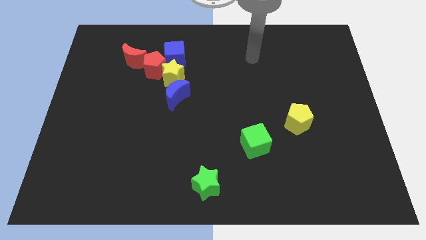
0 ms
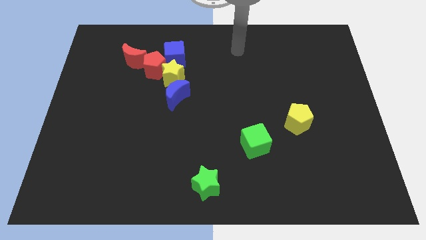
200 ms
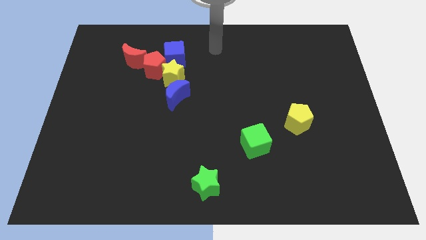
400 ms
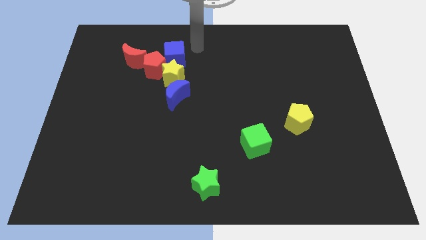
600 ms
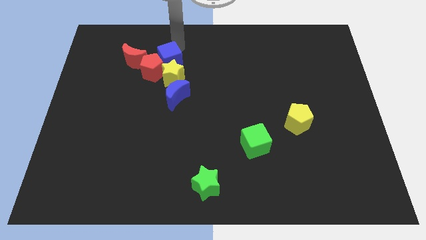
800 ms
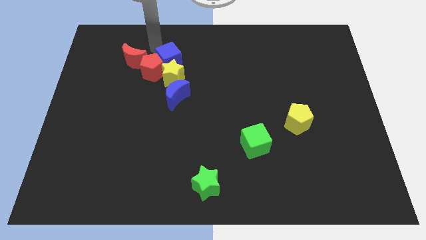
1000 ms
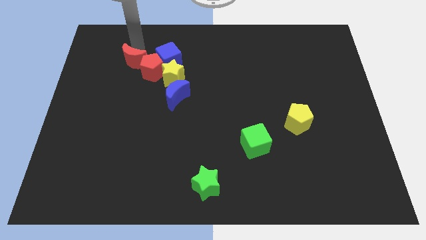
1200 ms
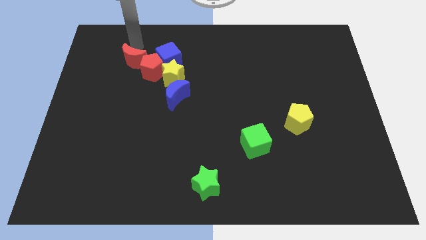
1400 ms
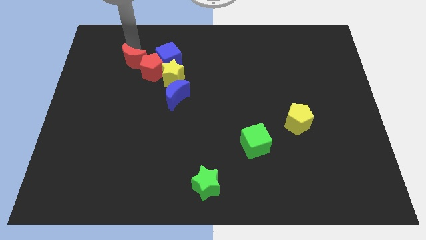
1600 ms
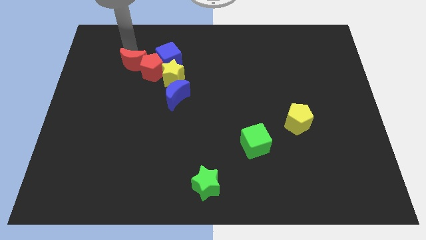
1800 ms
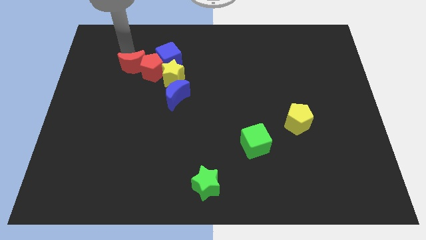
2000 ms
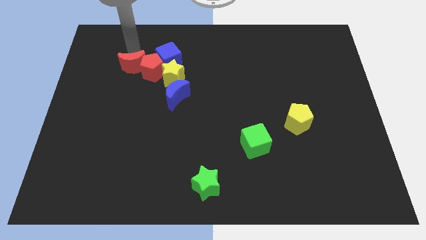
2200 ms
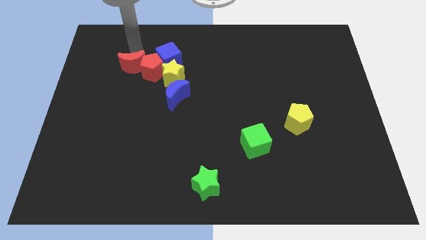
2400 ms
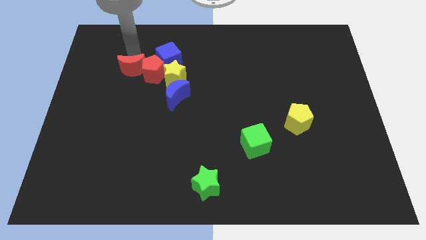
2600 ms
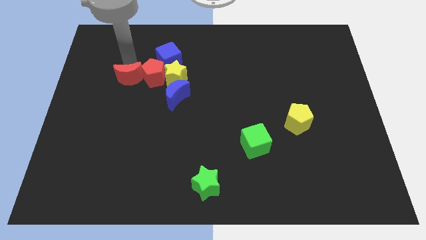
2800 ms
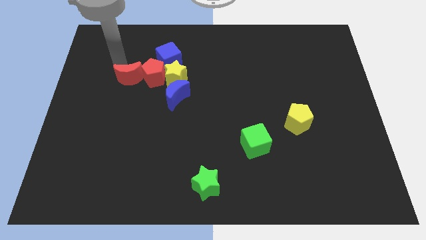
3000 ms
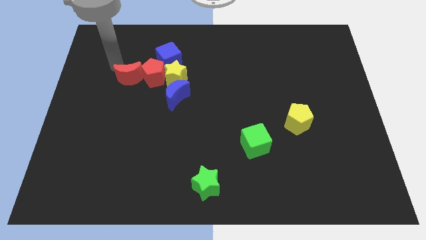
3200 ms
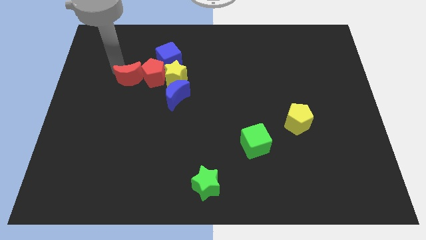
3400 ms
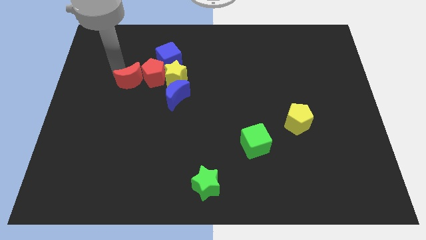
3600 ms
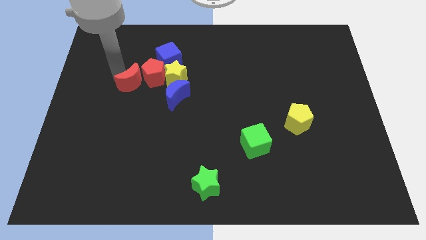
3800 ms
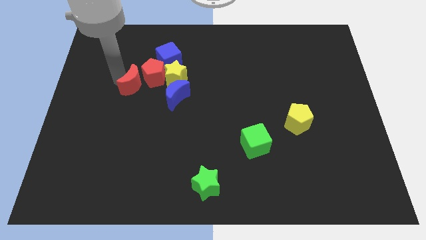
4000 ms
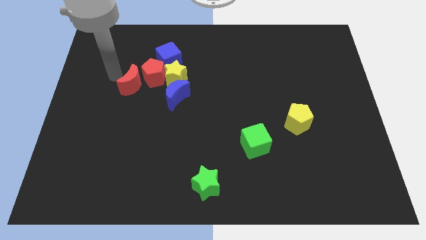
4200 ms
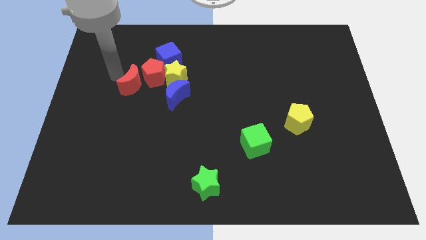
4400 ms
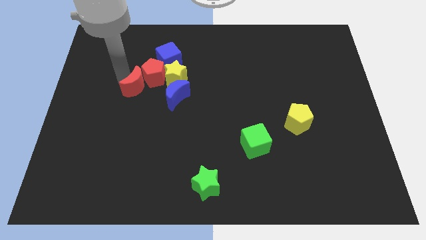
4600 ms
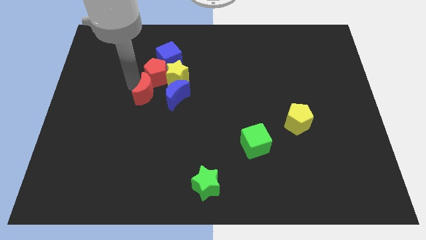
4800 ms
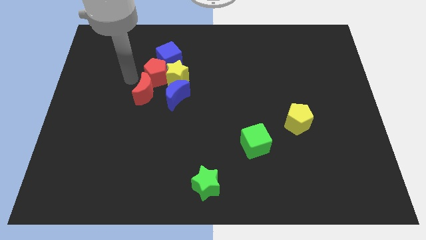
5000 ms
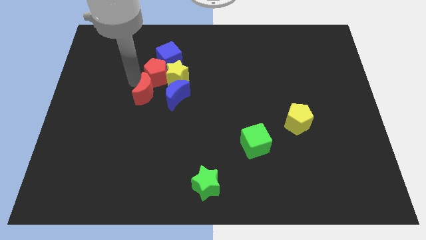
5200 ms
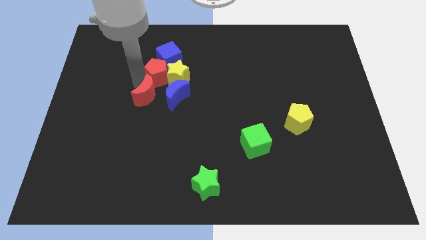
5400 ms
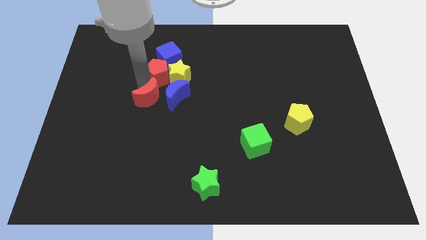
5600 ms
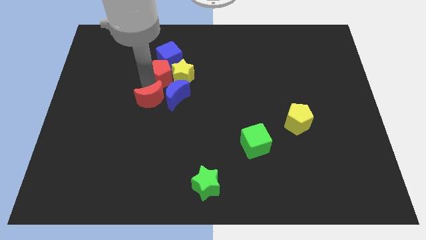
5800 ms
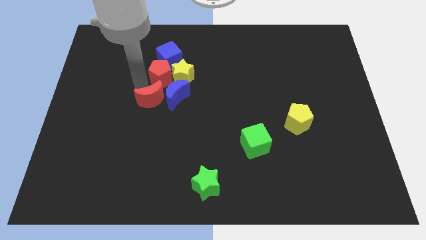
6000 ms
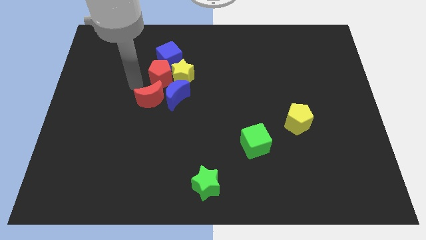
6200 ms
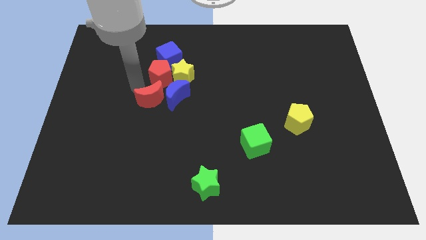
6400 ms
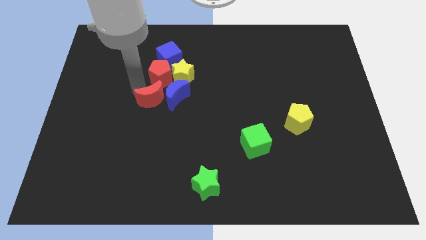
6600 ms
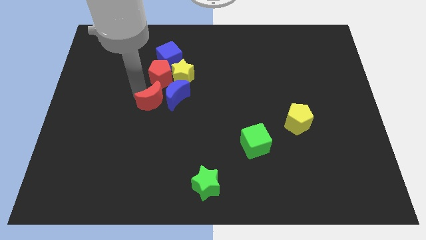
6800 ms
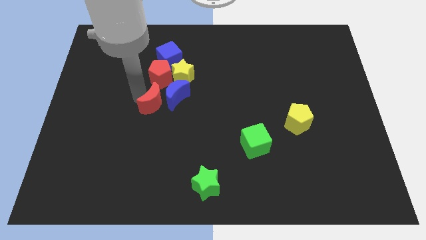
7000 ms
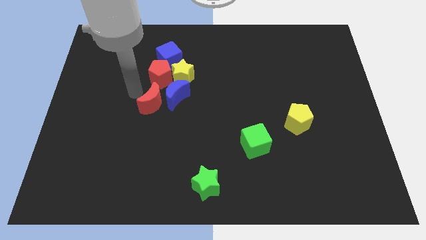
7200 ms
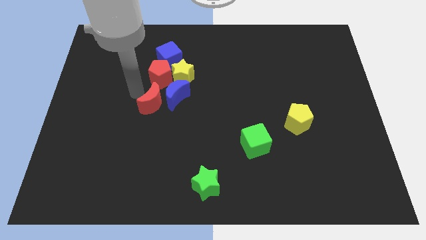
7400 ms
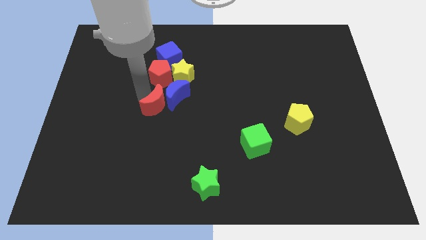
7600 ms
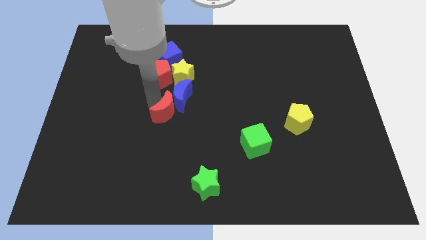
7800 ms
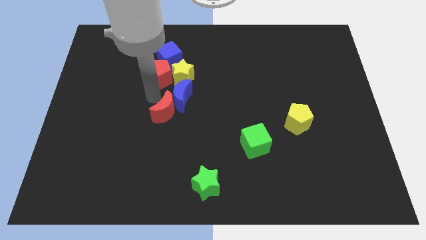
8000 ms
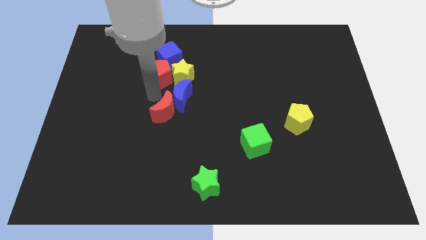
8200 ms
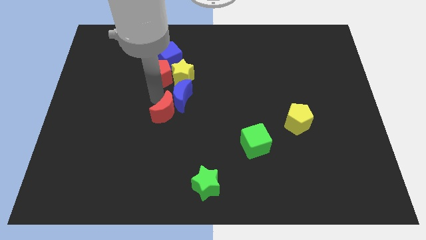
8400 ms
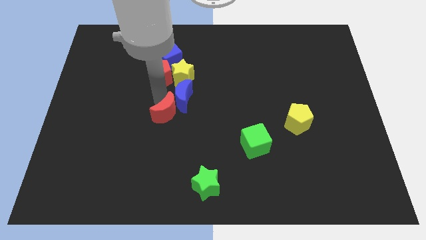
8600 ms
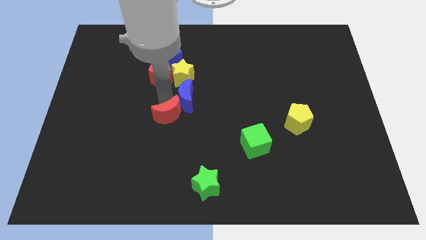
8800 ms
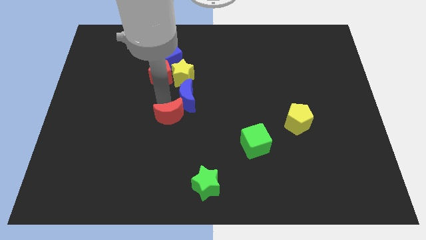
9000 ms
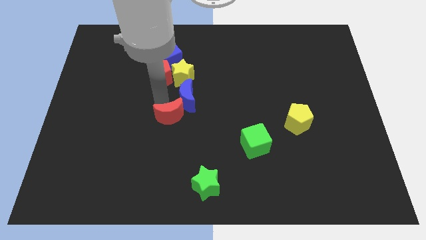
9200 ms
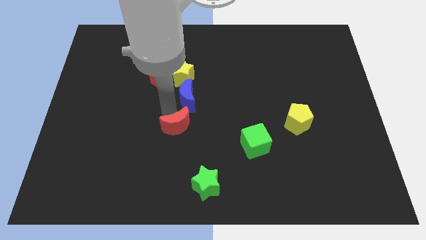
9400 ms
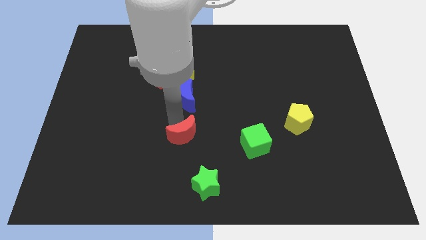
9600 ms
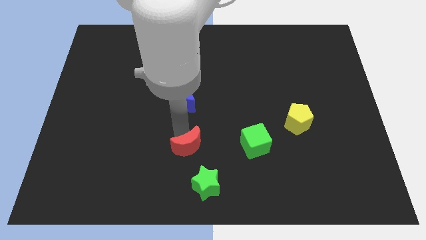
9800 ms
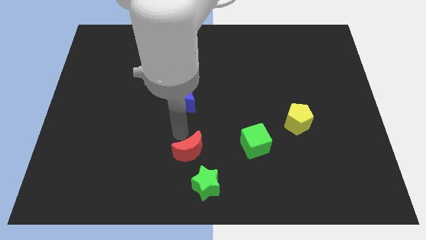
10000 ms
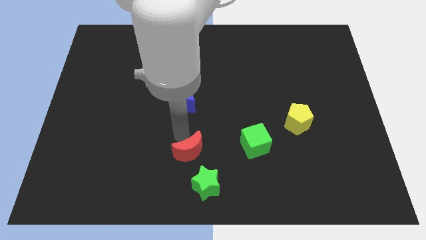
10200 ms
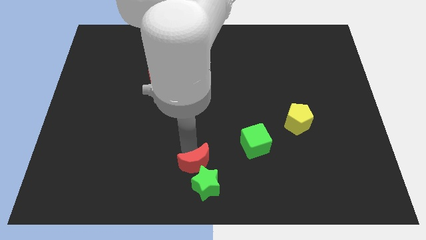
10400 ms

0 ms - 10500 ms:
push the red moon towards the green star

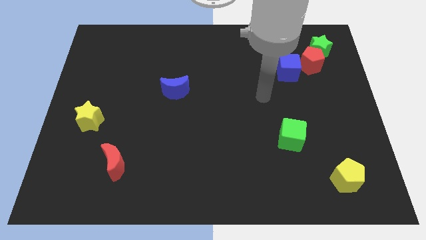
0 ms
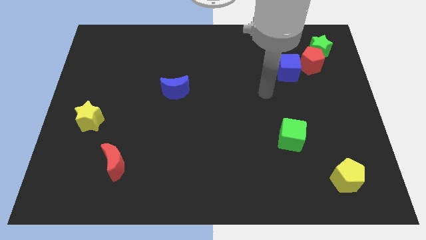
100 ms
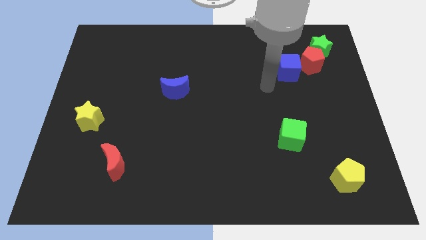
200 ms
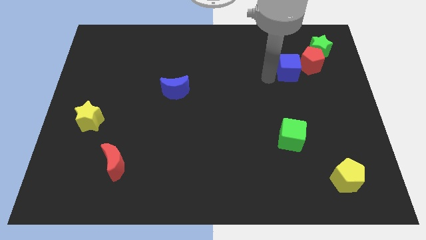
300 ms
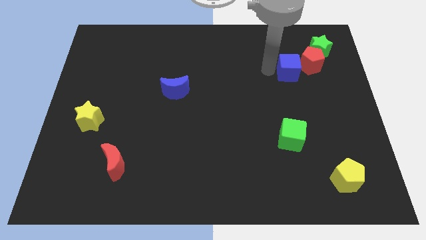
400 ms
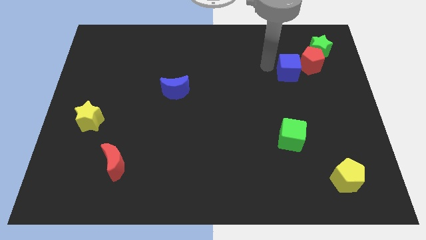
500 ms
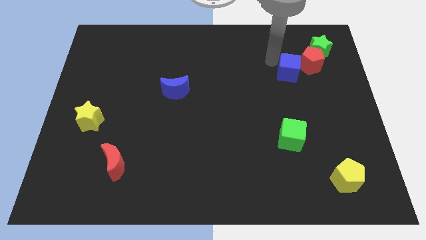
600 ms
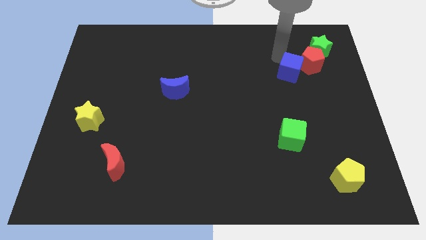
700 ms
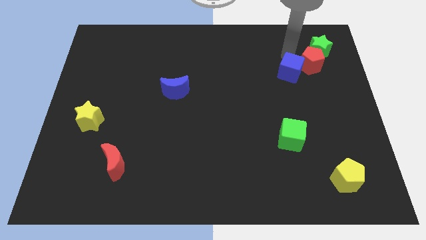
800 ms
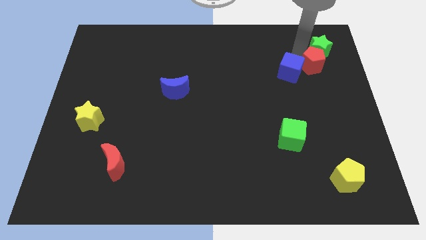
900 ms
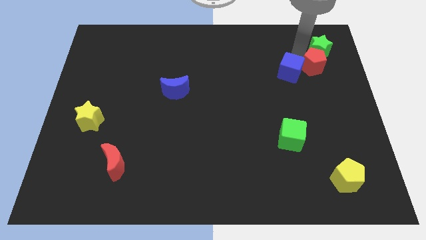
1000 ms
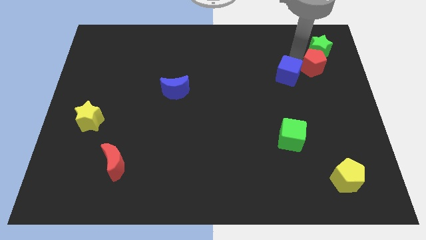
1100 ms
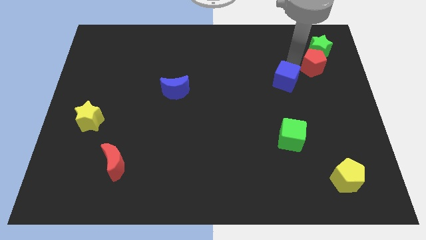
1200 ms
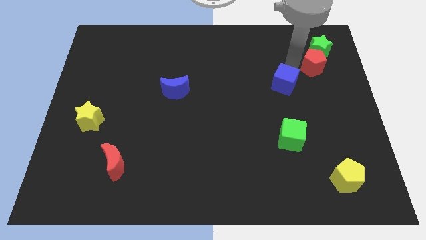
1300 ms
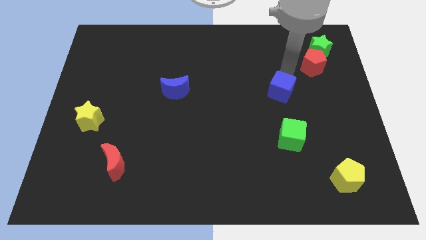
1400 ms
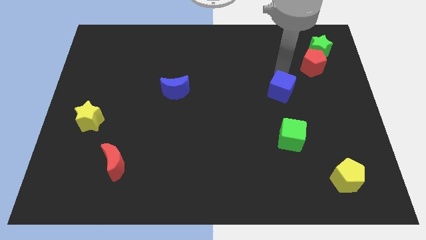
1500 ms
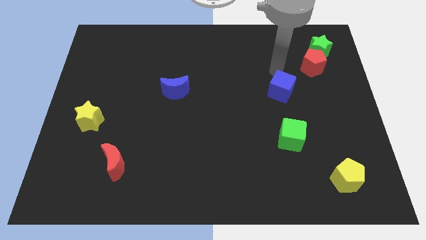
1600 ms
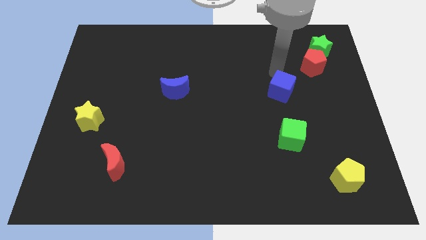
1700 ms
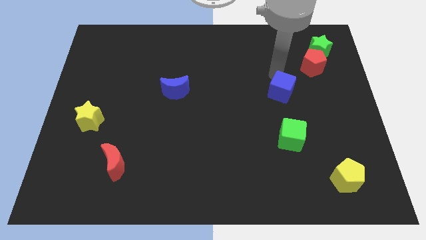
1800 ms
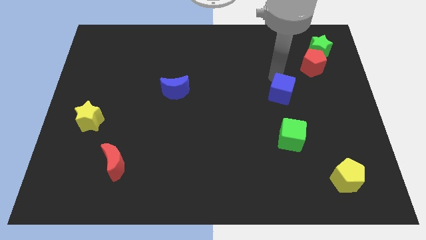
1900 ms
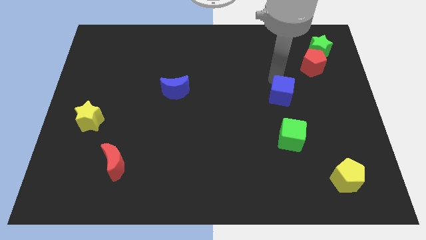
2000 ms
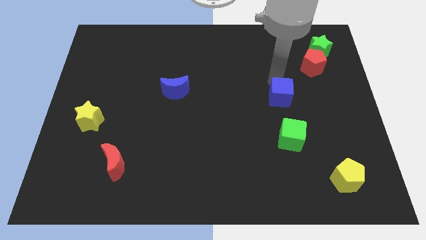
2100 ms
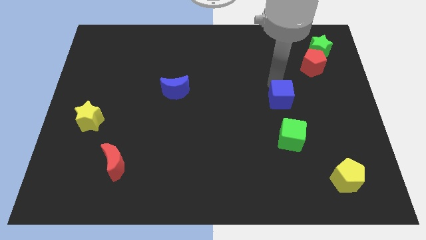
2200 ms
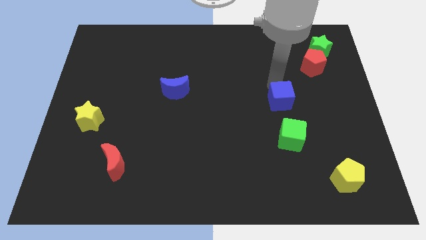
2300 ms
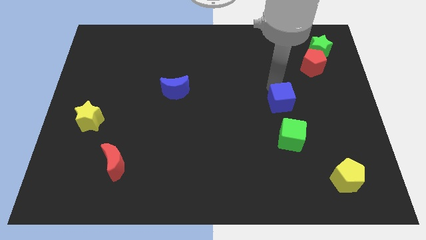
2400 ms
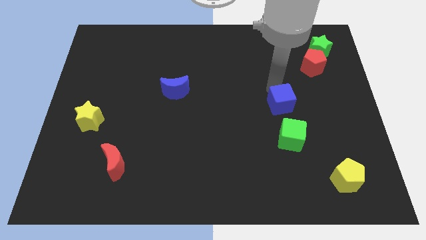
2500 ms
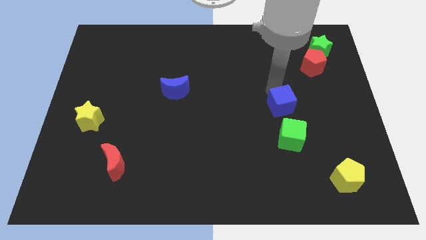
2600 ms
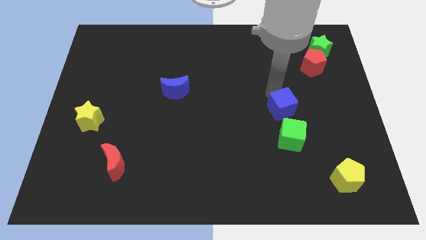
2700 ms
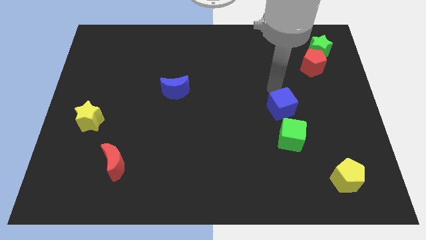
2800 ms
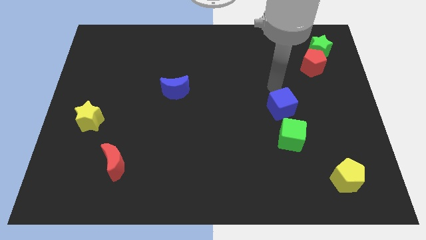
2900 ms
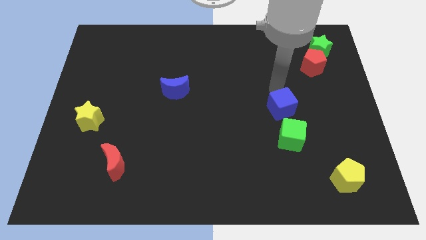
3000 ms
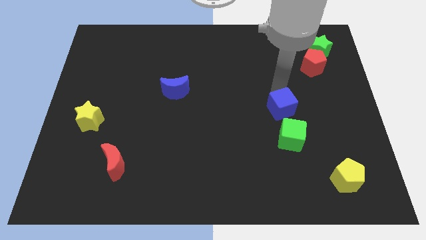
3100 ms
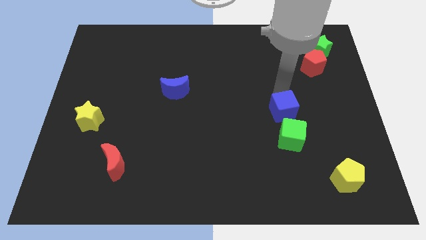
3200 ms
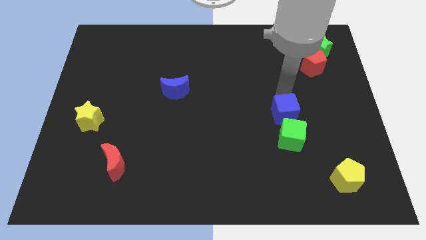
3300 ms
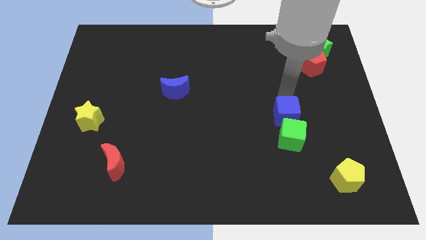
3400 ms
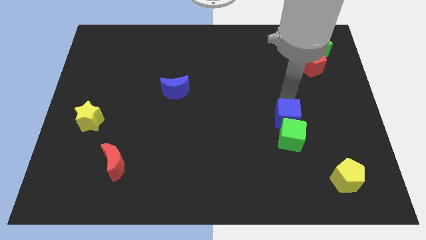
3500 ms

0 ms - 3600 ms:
slide the blue cube to the green cube
